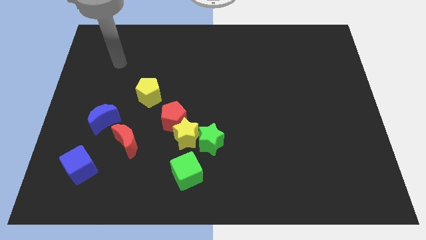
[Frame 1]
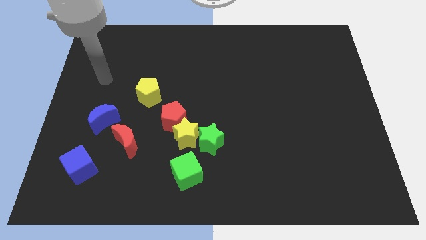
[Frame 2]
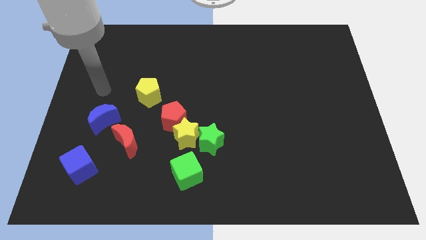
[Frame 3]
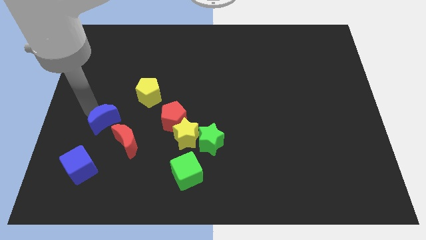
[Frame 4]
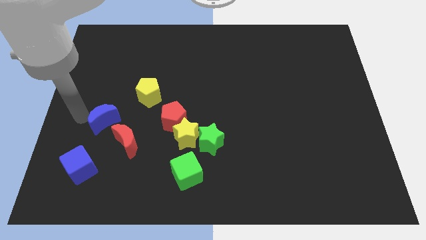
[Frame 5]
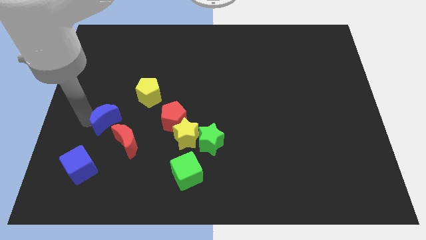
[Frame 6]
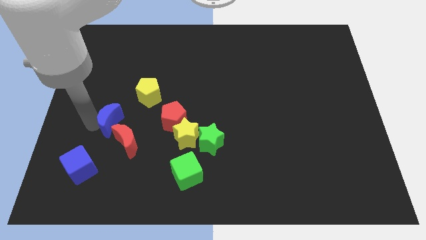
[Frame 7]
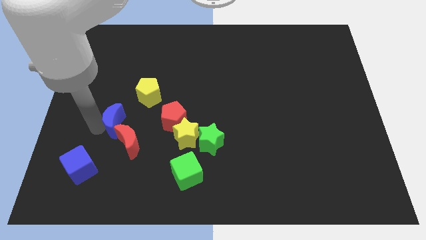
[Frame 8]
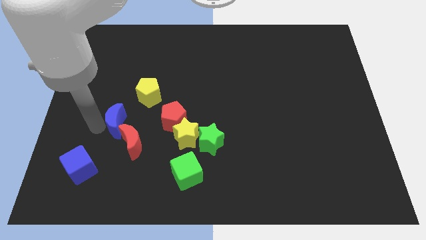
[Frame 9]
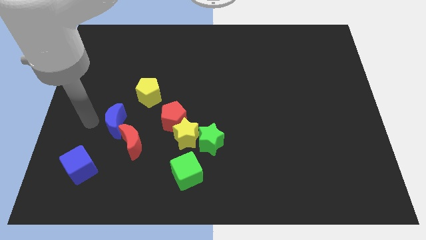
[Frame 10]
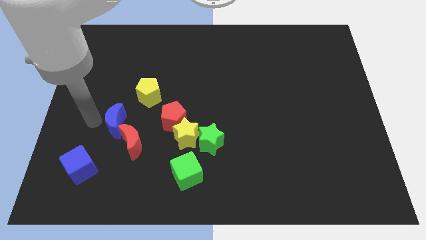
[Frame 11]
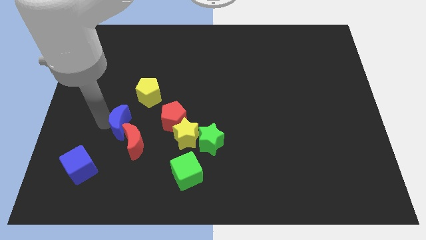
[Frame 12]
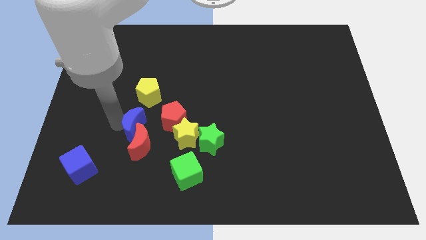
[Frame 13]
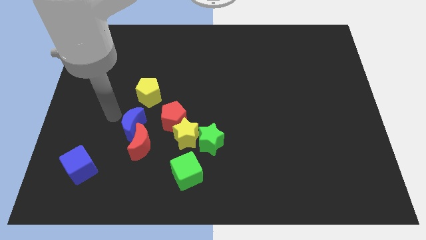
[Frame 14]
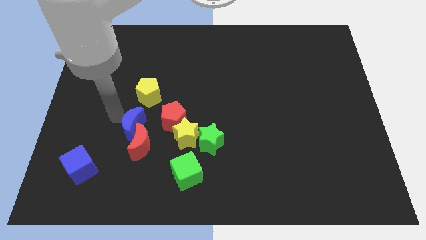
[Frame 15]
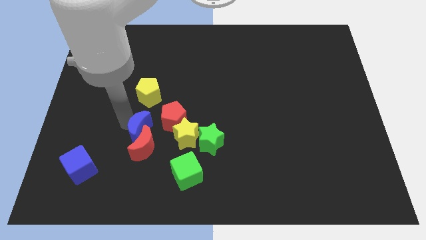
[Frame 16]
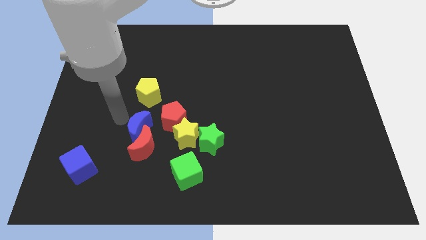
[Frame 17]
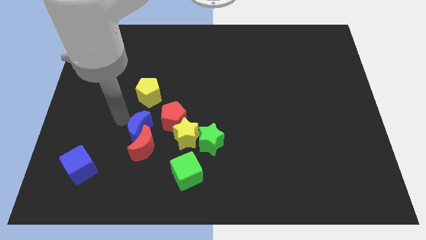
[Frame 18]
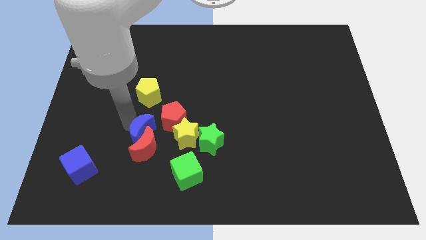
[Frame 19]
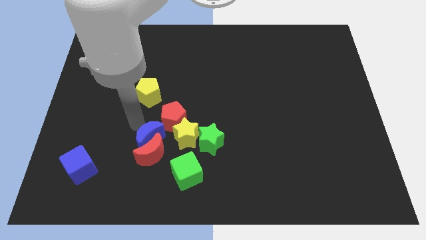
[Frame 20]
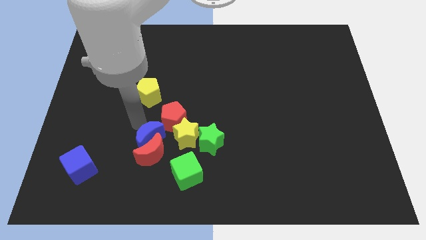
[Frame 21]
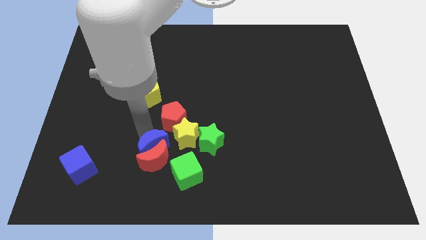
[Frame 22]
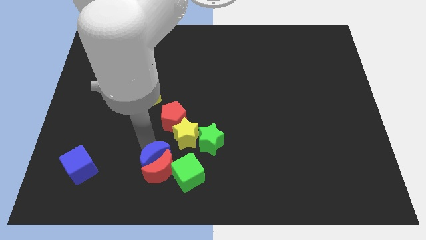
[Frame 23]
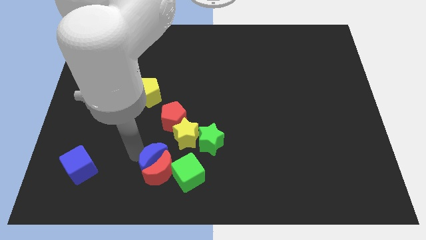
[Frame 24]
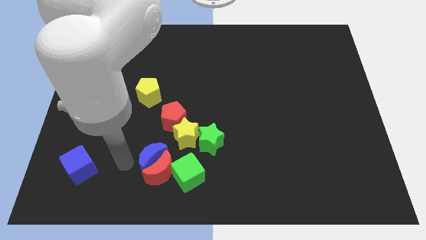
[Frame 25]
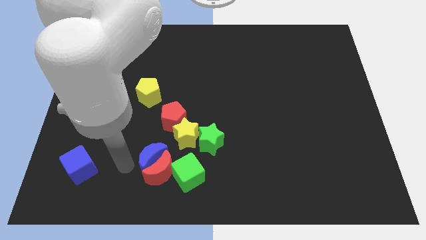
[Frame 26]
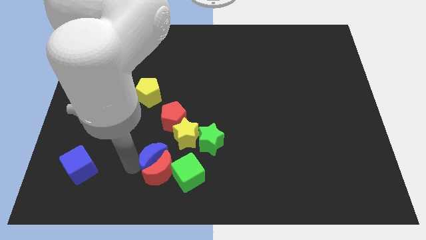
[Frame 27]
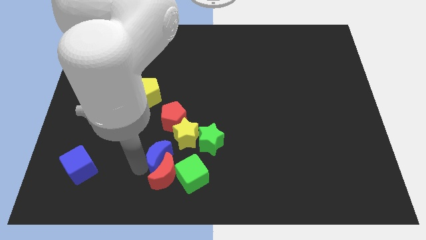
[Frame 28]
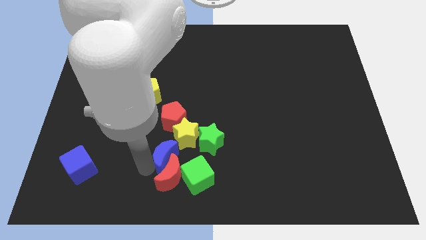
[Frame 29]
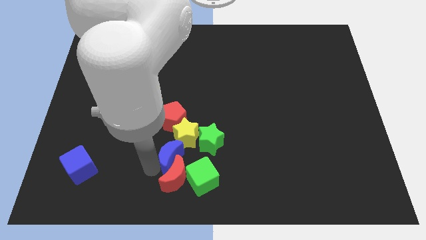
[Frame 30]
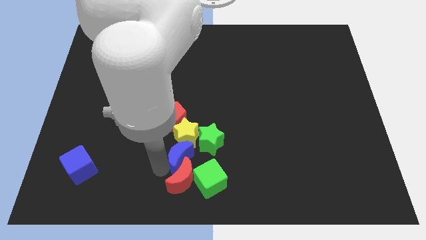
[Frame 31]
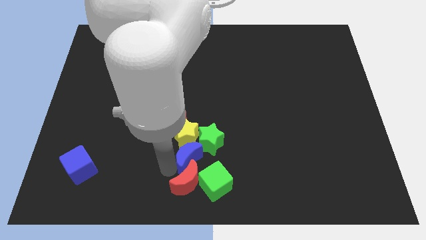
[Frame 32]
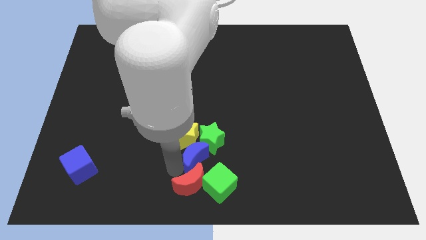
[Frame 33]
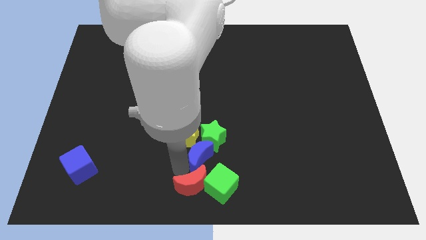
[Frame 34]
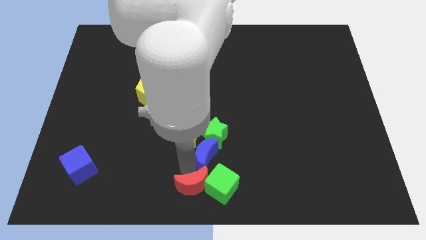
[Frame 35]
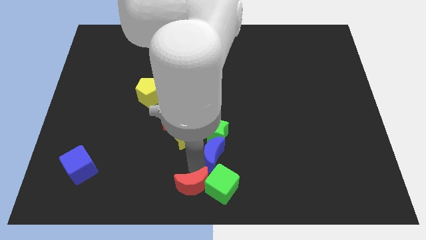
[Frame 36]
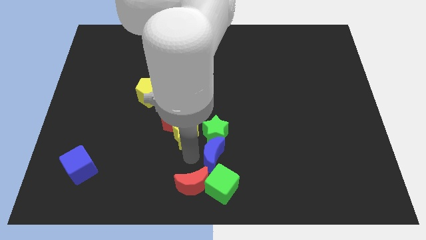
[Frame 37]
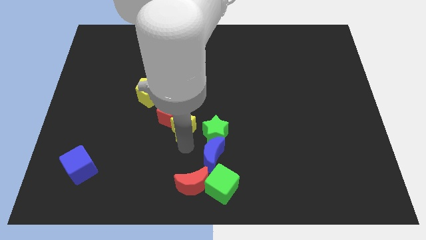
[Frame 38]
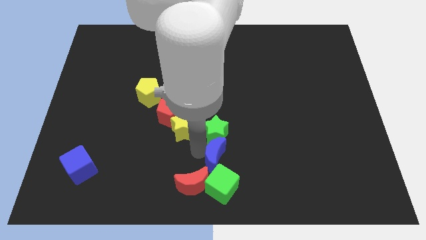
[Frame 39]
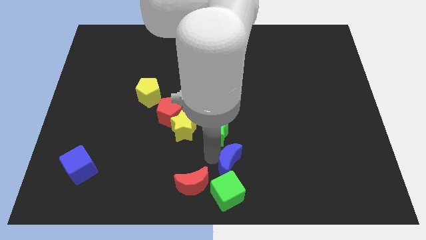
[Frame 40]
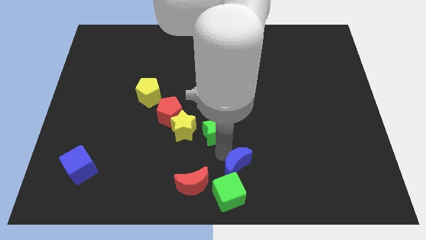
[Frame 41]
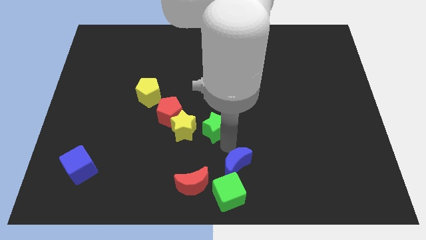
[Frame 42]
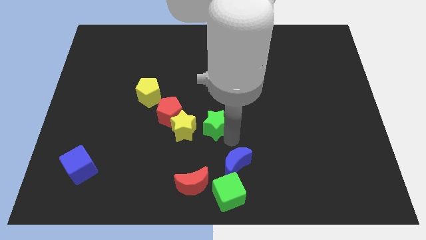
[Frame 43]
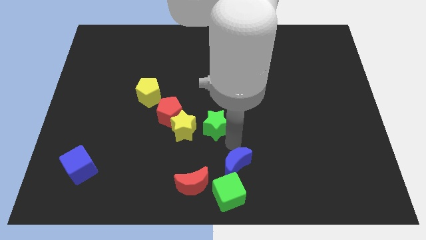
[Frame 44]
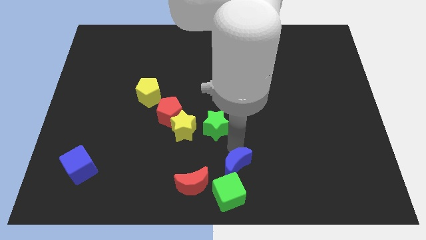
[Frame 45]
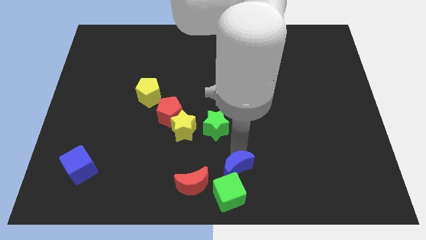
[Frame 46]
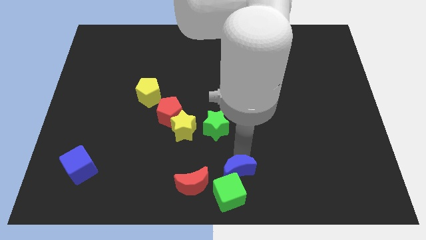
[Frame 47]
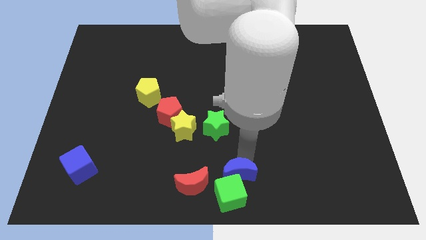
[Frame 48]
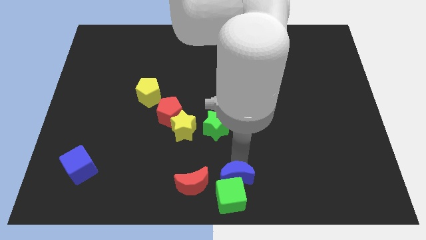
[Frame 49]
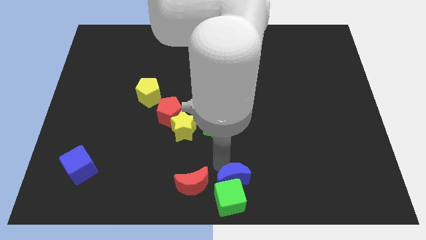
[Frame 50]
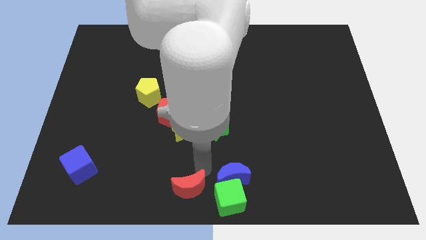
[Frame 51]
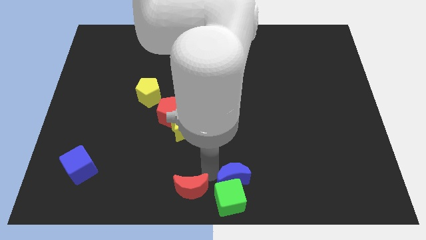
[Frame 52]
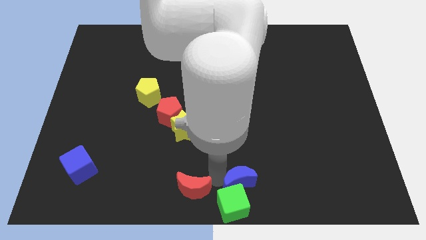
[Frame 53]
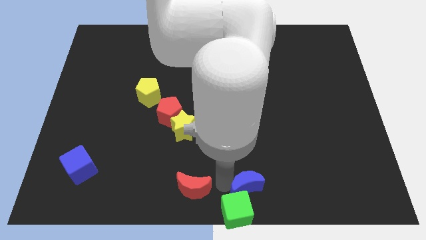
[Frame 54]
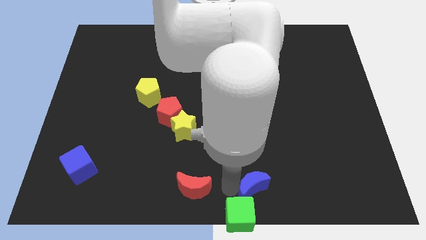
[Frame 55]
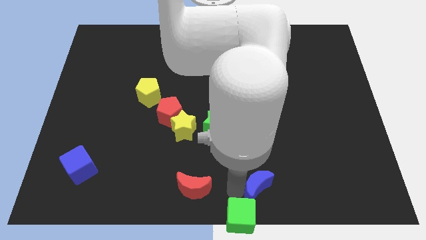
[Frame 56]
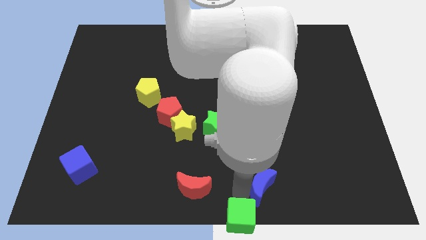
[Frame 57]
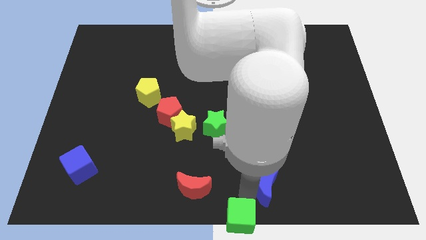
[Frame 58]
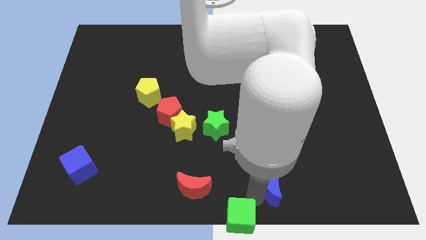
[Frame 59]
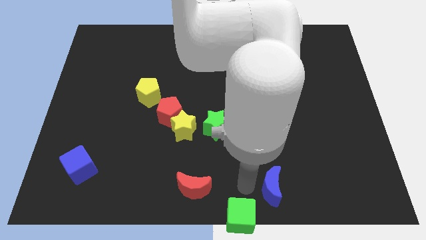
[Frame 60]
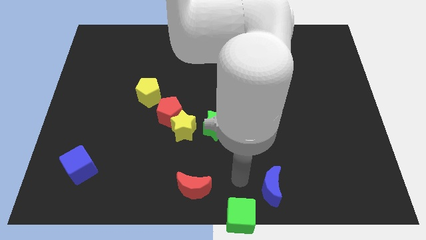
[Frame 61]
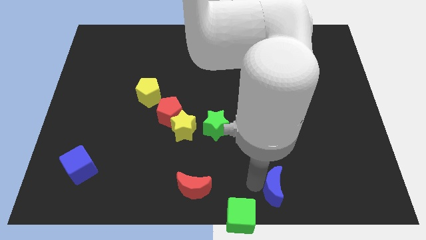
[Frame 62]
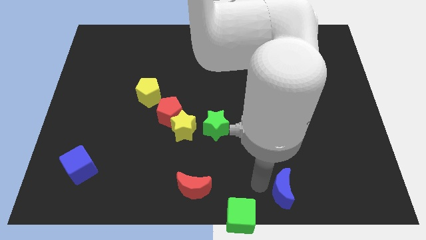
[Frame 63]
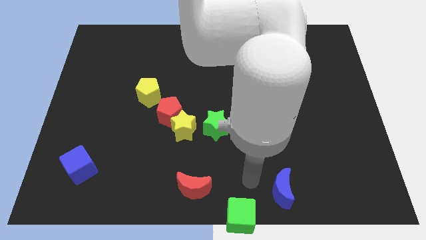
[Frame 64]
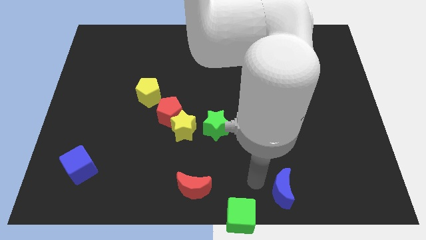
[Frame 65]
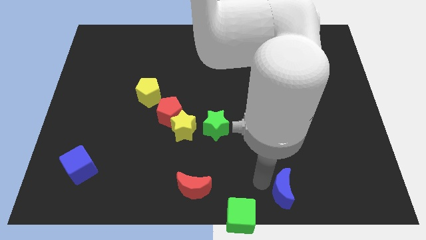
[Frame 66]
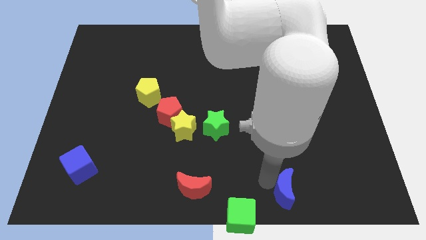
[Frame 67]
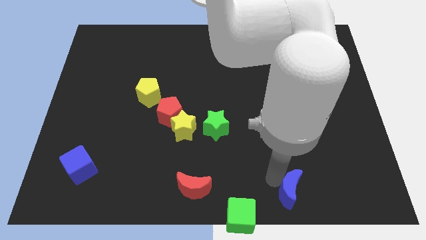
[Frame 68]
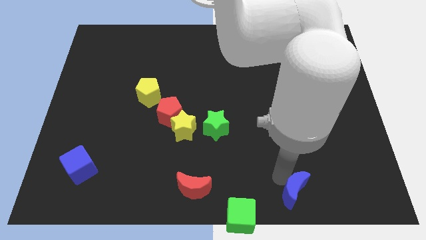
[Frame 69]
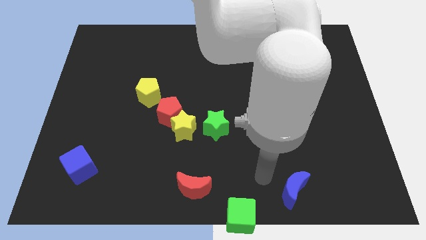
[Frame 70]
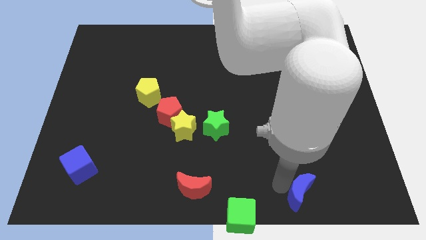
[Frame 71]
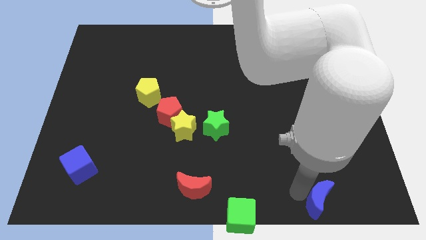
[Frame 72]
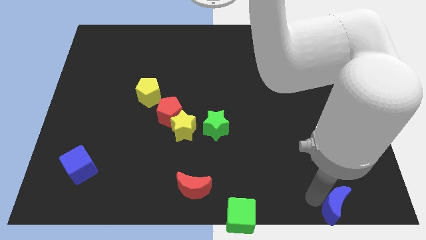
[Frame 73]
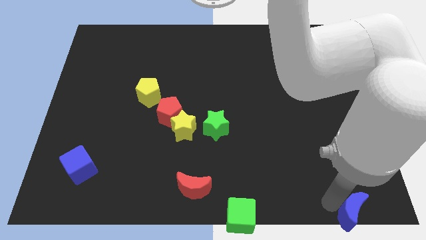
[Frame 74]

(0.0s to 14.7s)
push the blue moon to the lower right corner

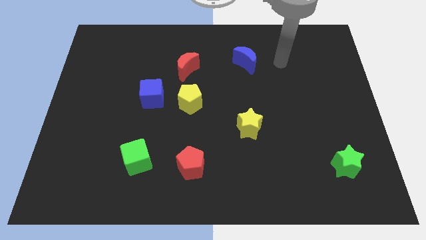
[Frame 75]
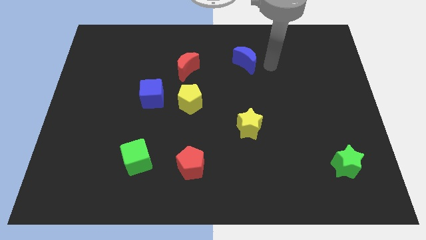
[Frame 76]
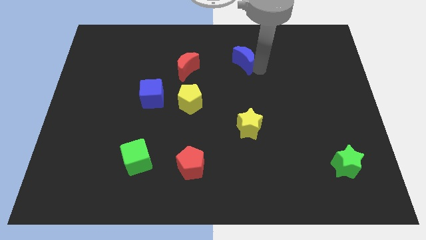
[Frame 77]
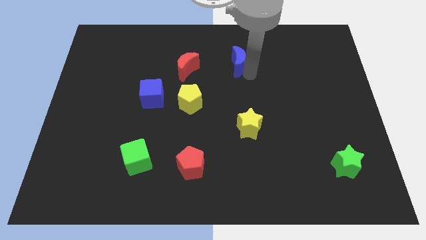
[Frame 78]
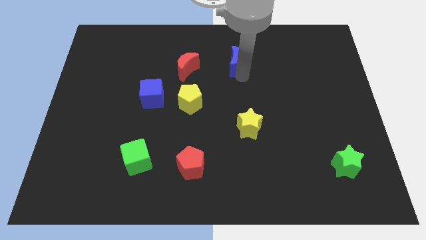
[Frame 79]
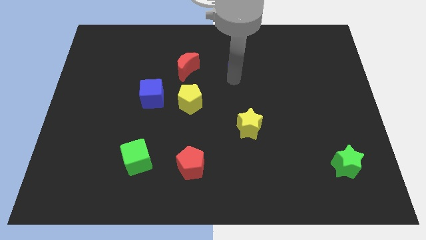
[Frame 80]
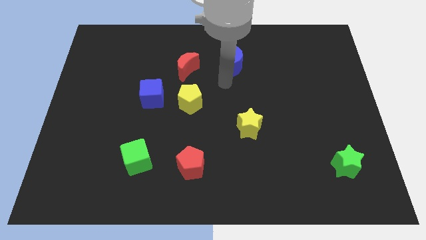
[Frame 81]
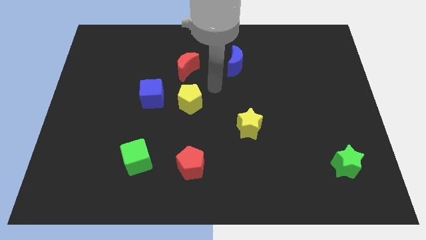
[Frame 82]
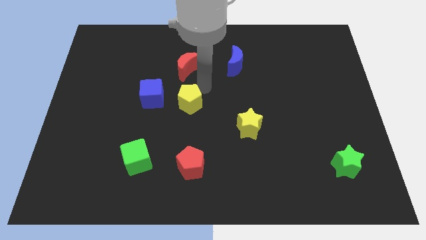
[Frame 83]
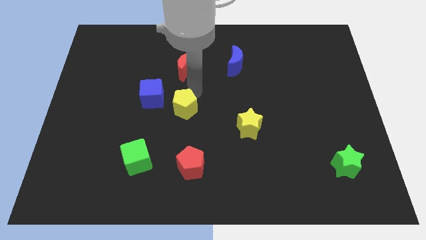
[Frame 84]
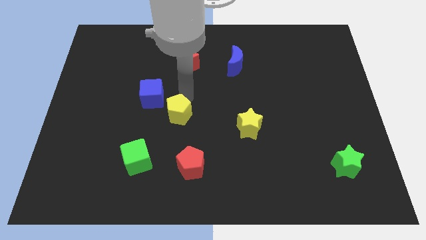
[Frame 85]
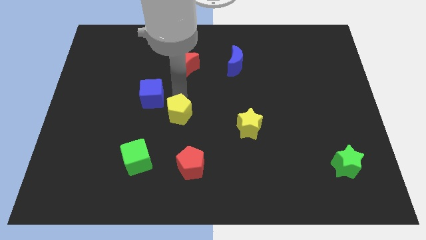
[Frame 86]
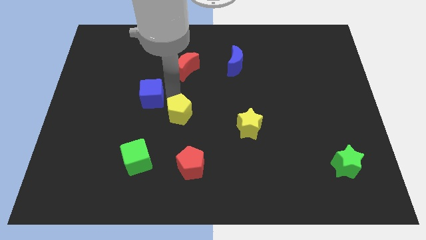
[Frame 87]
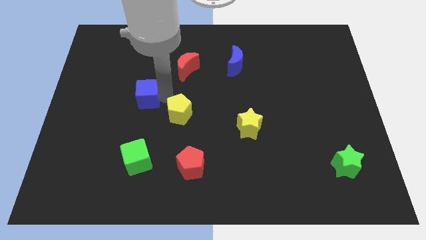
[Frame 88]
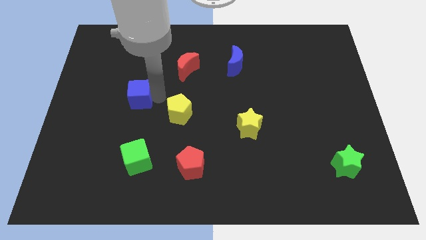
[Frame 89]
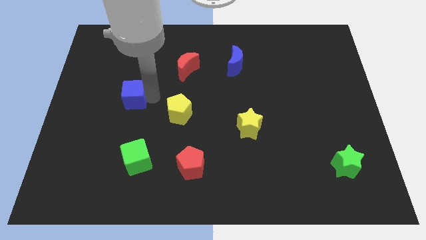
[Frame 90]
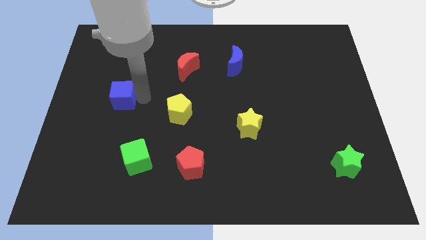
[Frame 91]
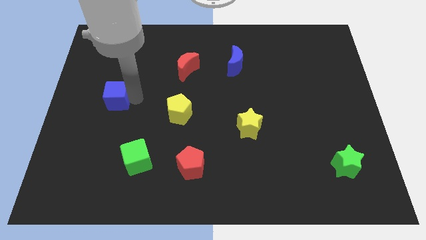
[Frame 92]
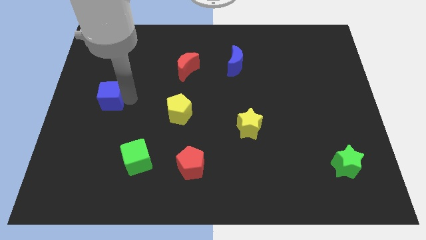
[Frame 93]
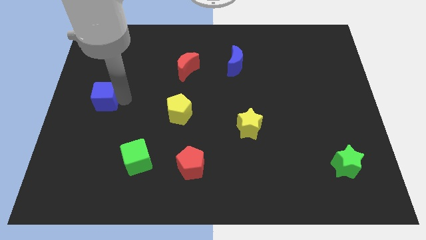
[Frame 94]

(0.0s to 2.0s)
push the blue cube to the left side of the board
